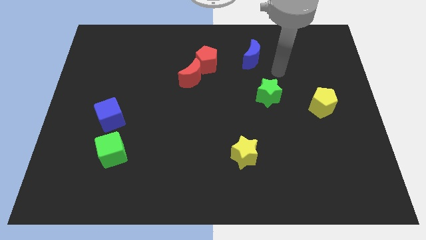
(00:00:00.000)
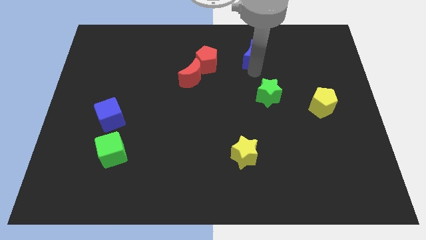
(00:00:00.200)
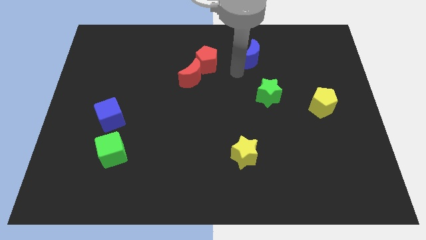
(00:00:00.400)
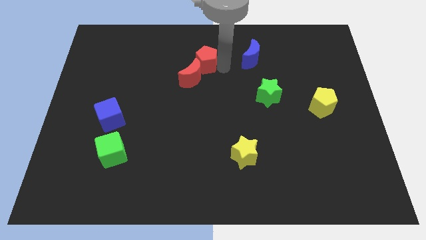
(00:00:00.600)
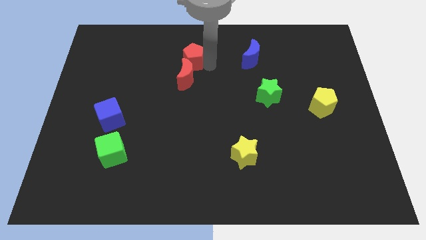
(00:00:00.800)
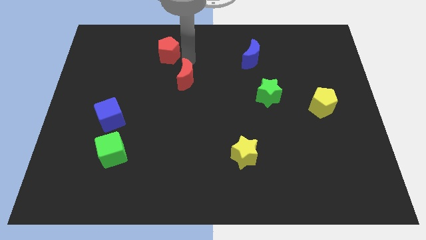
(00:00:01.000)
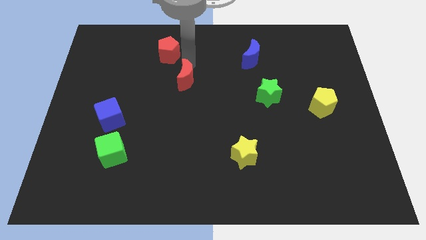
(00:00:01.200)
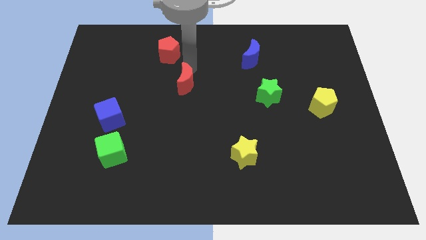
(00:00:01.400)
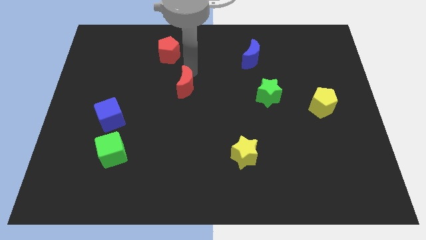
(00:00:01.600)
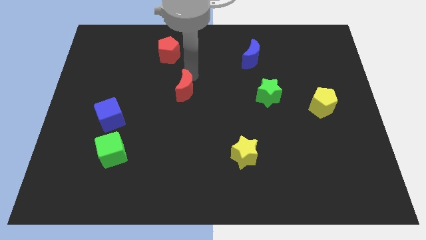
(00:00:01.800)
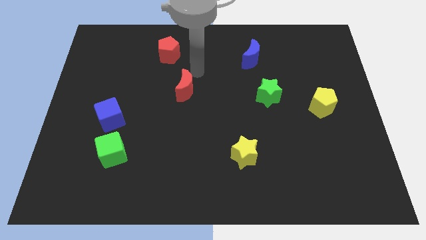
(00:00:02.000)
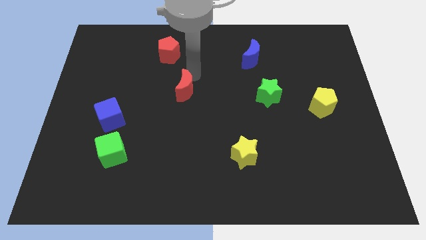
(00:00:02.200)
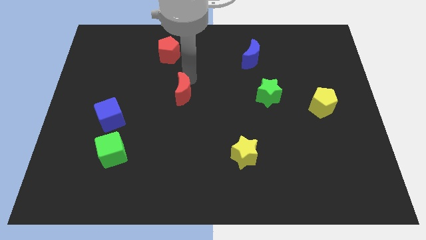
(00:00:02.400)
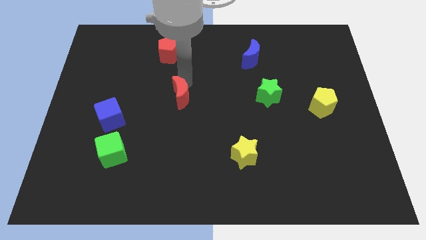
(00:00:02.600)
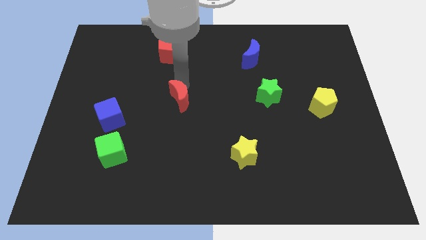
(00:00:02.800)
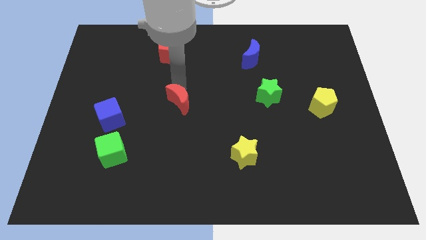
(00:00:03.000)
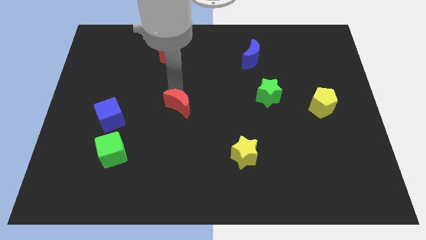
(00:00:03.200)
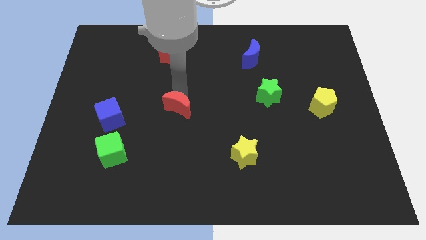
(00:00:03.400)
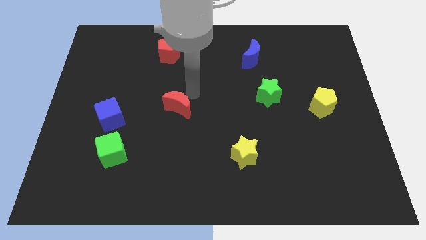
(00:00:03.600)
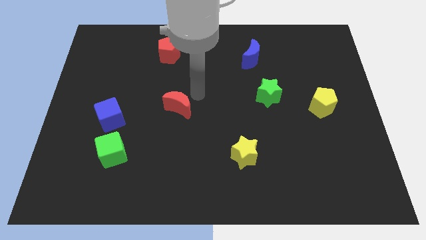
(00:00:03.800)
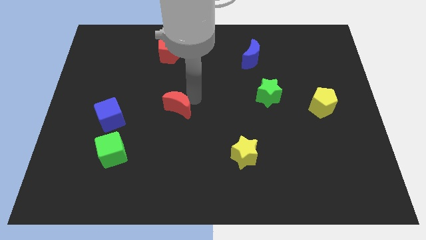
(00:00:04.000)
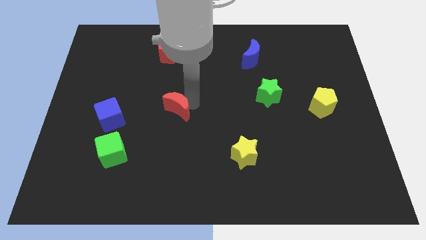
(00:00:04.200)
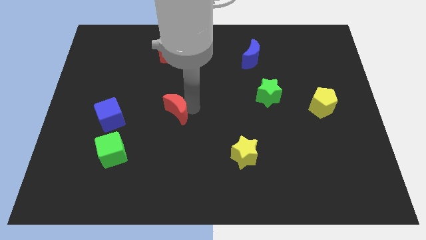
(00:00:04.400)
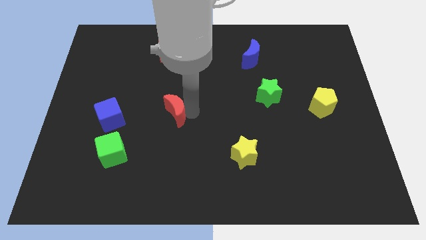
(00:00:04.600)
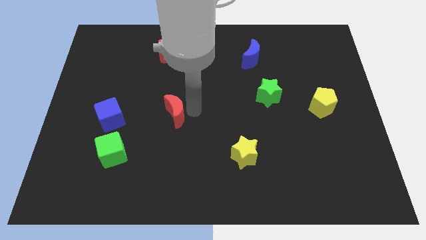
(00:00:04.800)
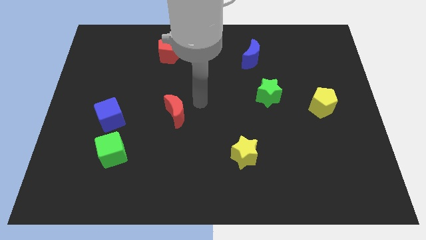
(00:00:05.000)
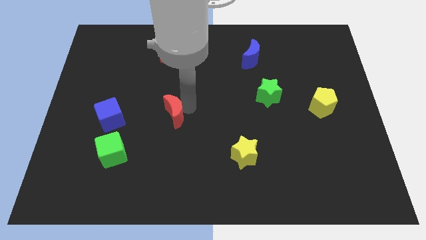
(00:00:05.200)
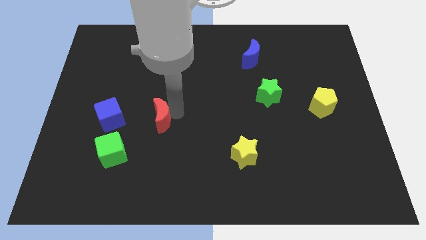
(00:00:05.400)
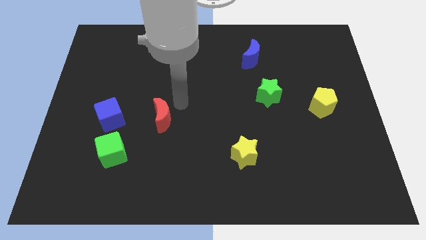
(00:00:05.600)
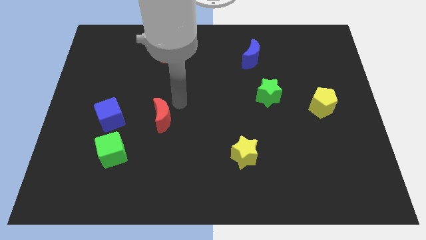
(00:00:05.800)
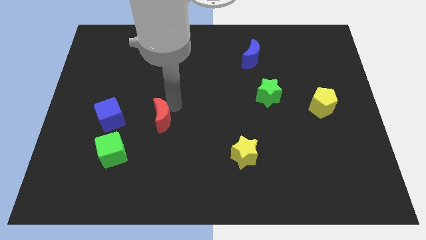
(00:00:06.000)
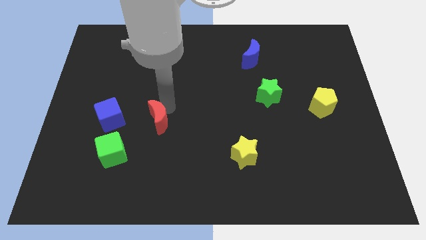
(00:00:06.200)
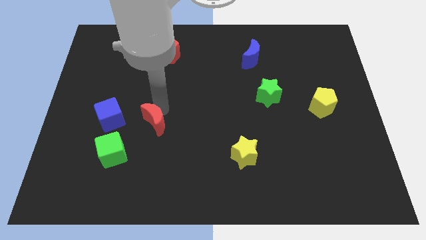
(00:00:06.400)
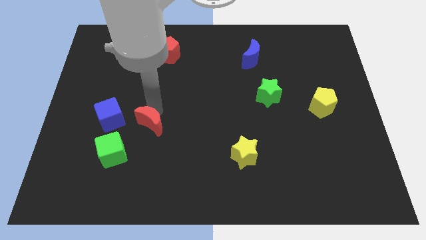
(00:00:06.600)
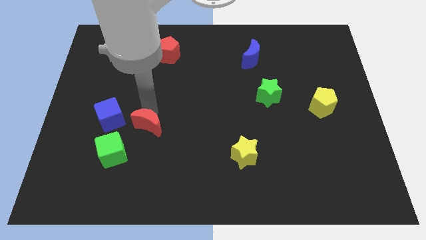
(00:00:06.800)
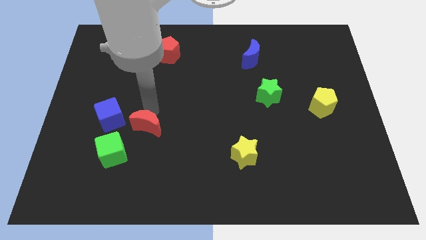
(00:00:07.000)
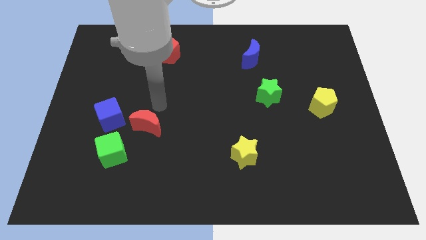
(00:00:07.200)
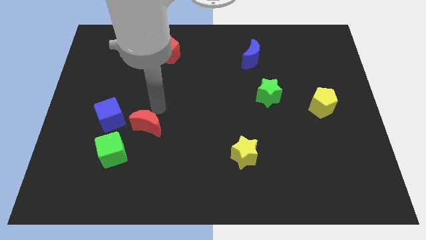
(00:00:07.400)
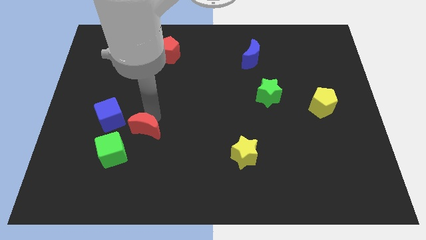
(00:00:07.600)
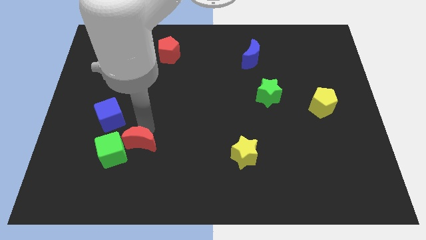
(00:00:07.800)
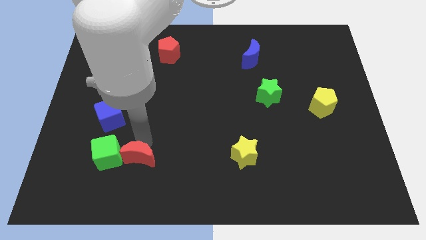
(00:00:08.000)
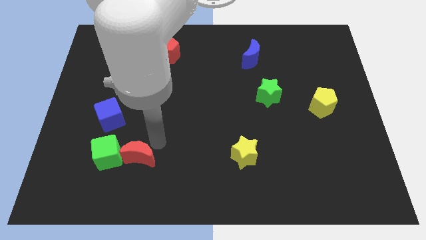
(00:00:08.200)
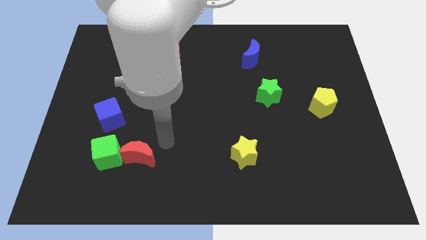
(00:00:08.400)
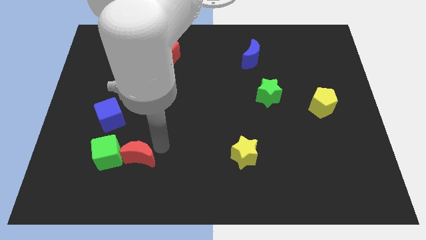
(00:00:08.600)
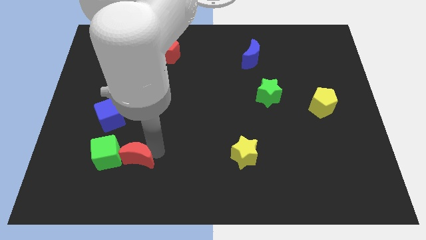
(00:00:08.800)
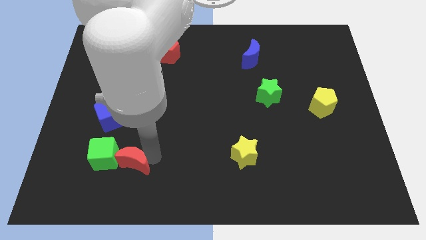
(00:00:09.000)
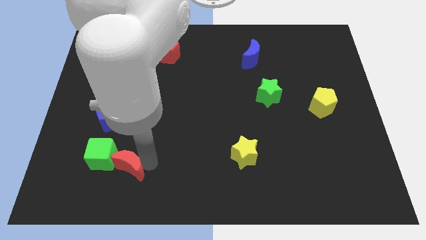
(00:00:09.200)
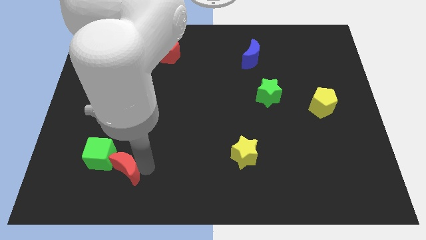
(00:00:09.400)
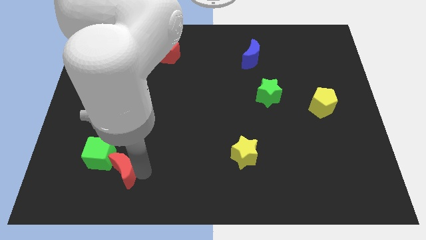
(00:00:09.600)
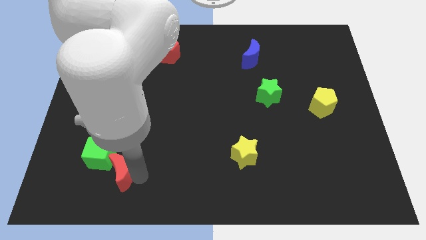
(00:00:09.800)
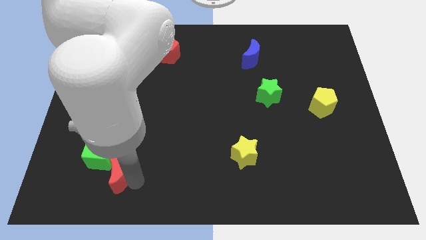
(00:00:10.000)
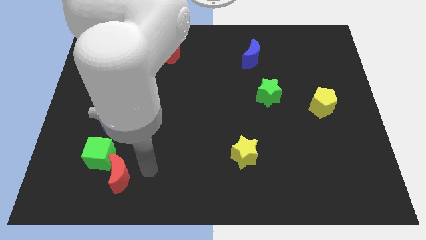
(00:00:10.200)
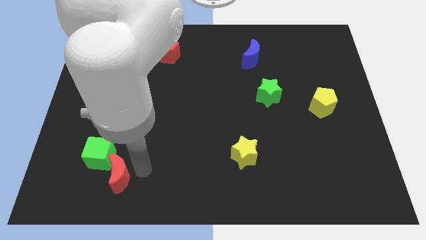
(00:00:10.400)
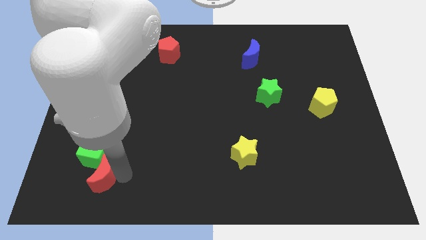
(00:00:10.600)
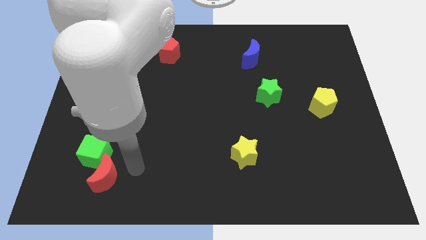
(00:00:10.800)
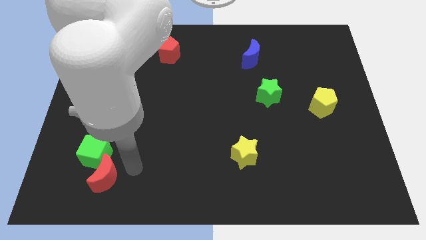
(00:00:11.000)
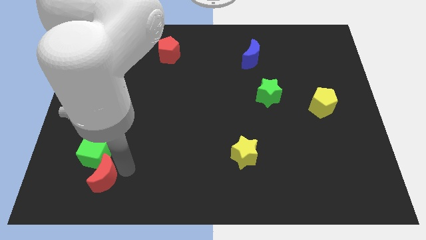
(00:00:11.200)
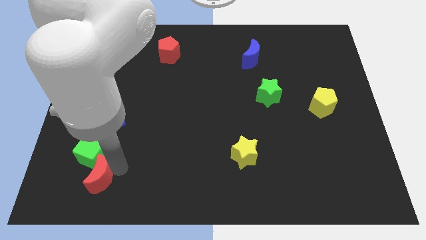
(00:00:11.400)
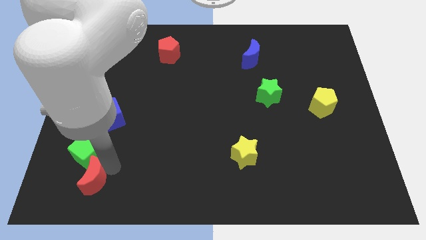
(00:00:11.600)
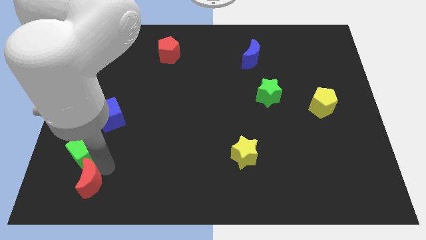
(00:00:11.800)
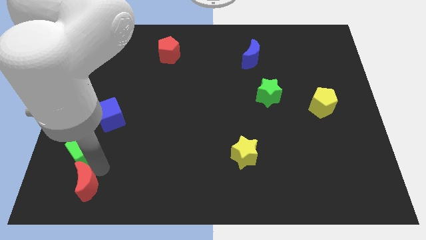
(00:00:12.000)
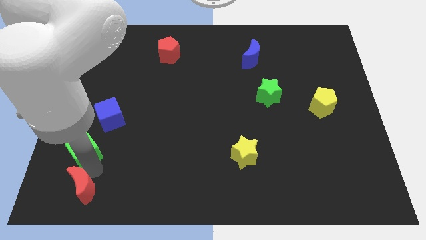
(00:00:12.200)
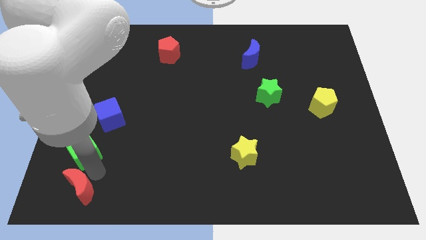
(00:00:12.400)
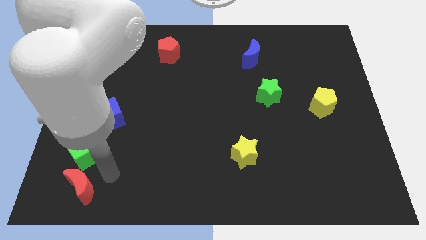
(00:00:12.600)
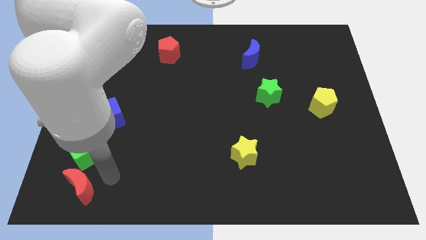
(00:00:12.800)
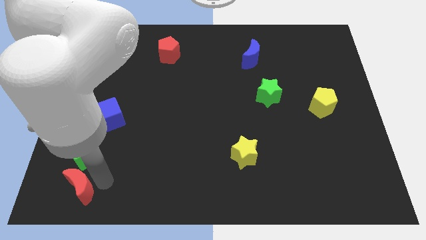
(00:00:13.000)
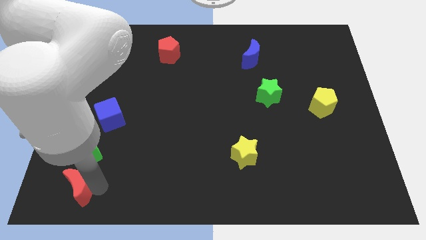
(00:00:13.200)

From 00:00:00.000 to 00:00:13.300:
move the red moon to the bottom left corner

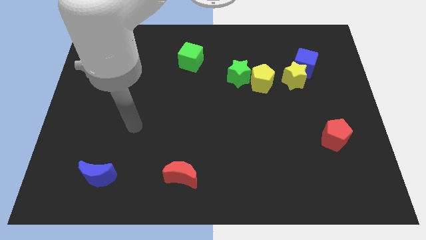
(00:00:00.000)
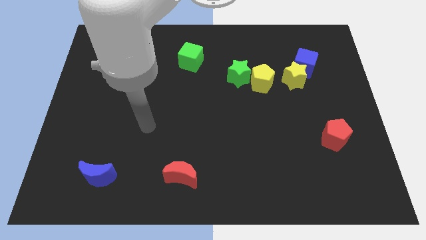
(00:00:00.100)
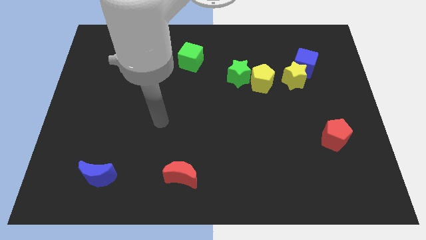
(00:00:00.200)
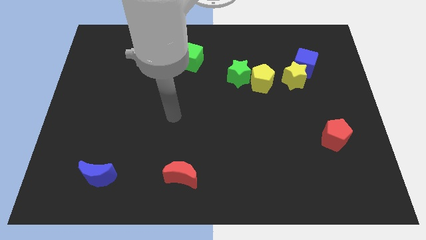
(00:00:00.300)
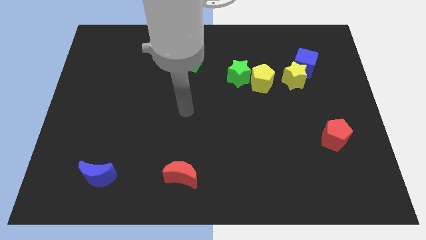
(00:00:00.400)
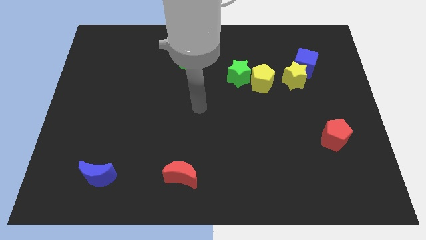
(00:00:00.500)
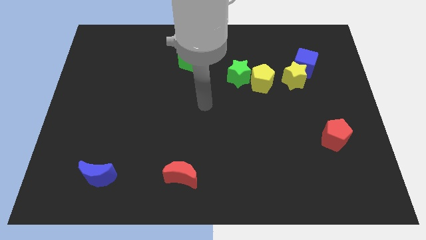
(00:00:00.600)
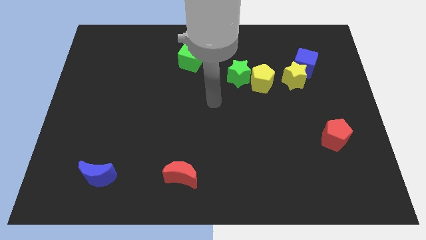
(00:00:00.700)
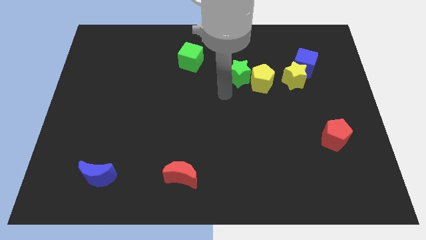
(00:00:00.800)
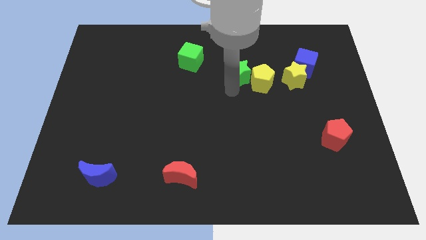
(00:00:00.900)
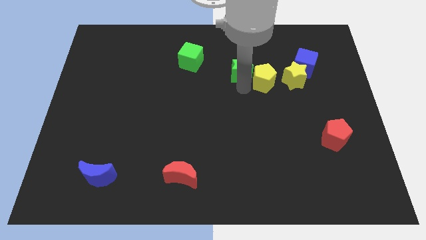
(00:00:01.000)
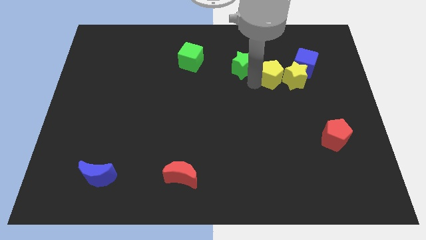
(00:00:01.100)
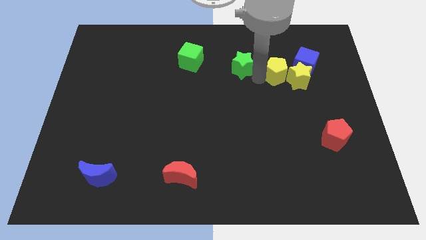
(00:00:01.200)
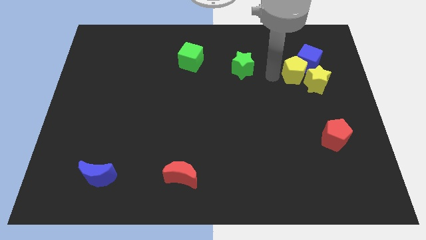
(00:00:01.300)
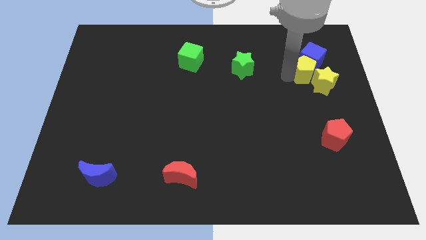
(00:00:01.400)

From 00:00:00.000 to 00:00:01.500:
put the yellow star to the right side of the board
